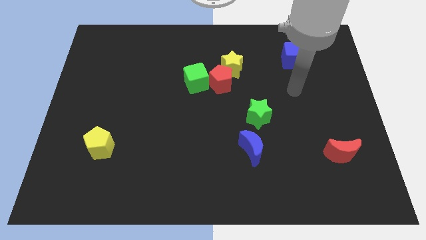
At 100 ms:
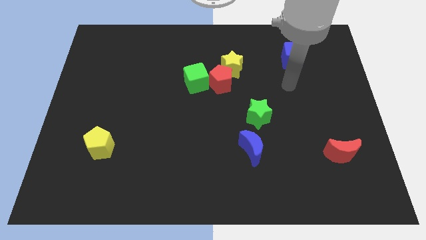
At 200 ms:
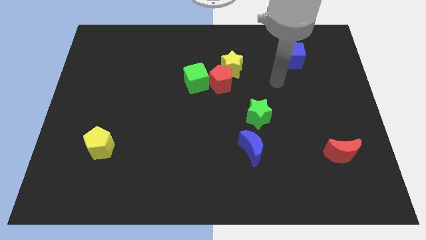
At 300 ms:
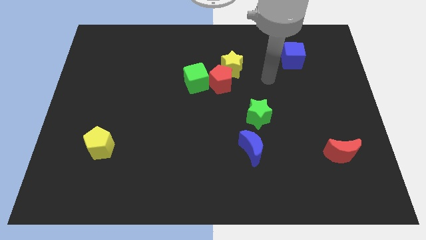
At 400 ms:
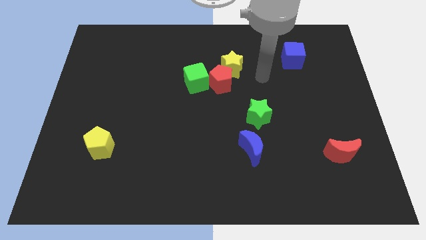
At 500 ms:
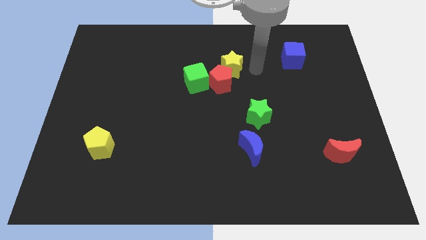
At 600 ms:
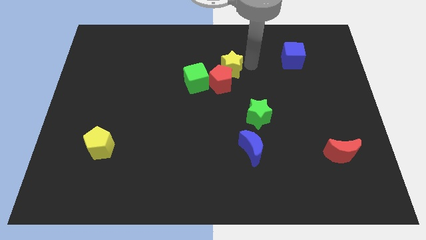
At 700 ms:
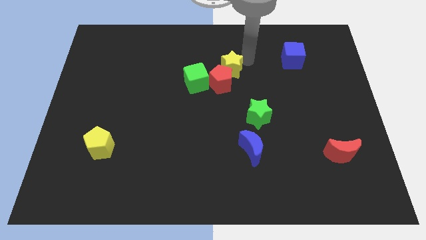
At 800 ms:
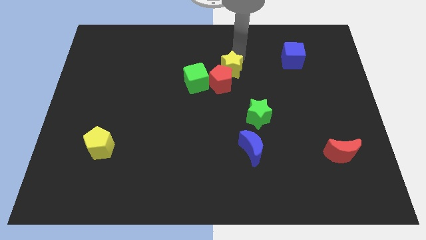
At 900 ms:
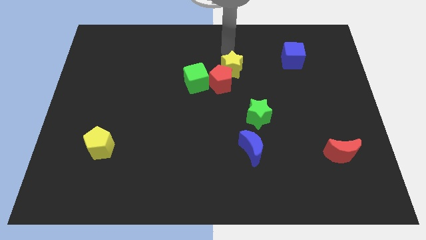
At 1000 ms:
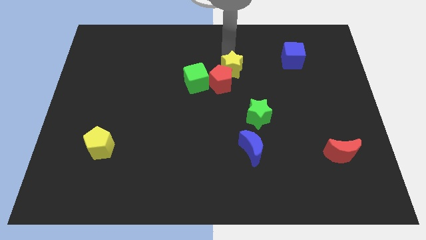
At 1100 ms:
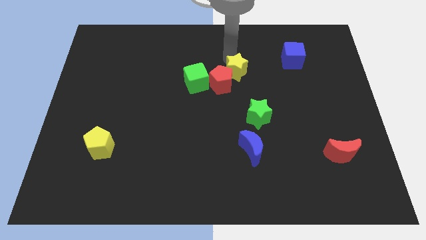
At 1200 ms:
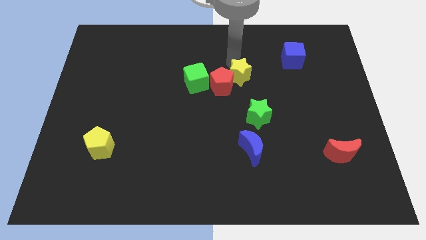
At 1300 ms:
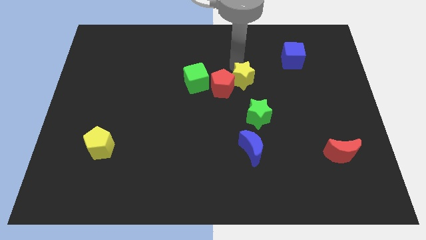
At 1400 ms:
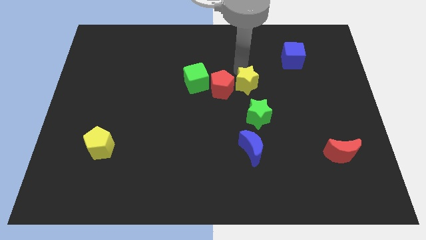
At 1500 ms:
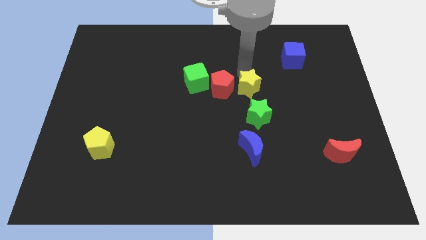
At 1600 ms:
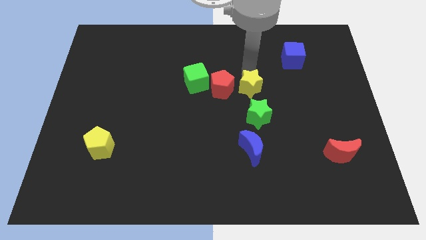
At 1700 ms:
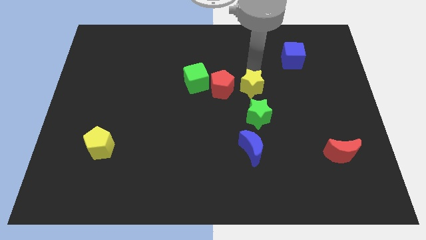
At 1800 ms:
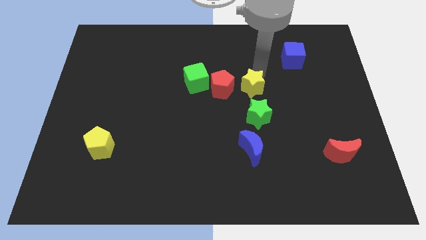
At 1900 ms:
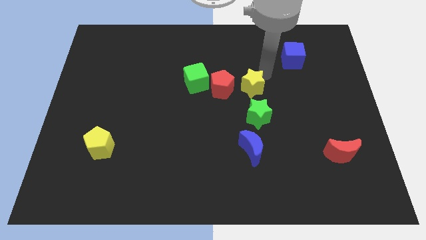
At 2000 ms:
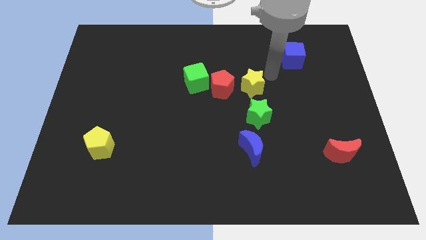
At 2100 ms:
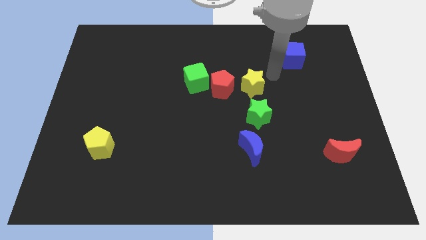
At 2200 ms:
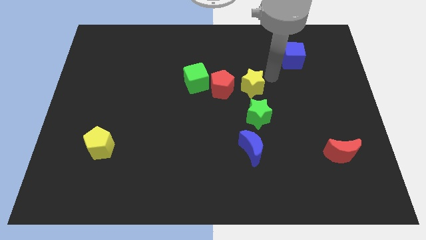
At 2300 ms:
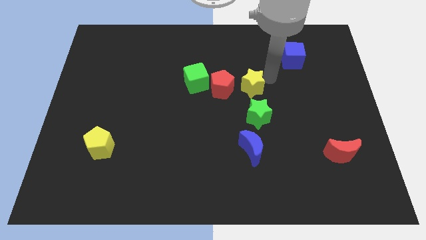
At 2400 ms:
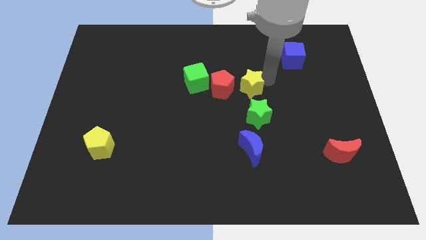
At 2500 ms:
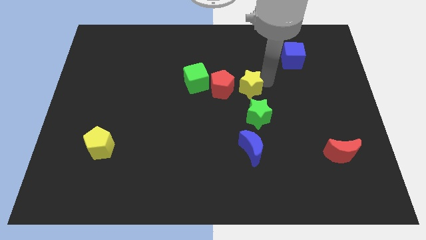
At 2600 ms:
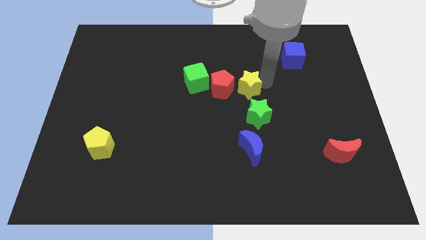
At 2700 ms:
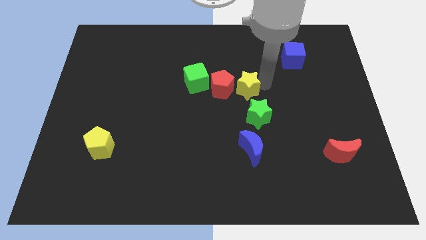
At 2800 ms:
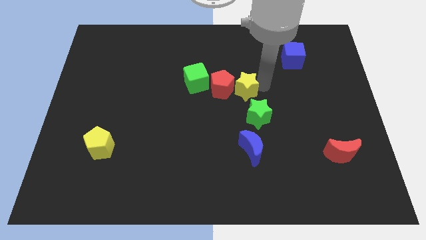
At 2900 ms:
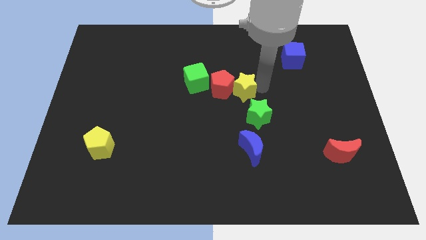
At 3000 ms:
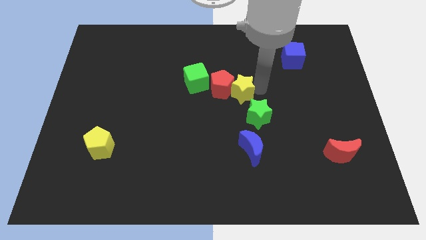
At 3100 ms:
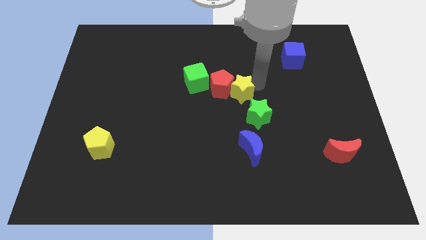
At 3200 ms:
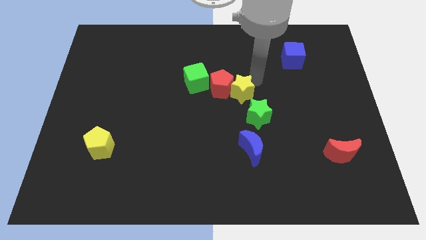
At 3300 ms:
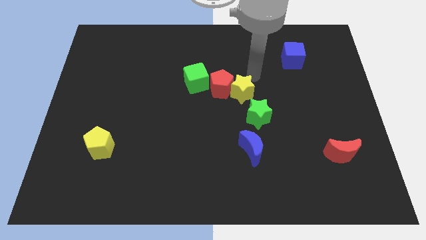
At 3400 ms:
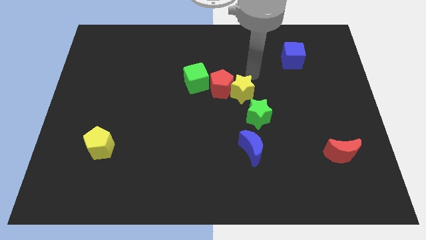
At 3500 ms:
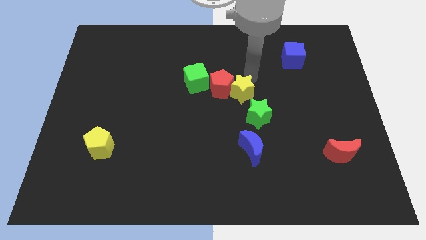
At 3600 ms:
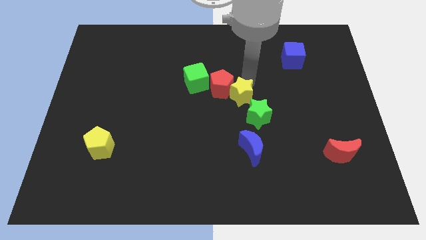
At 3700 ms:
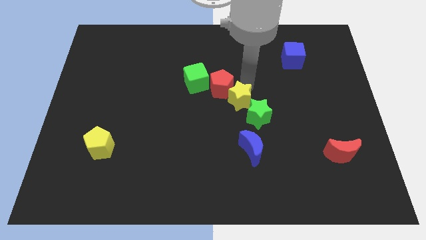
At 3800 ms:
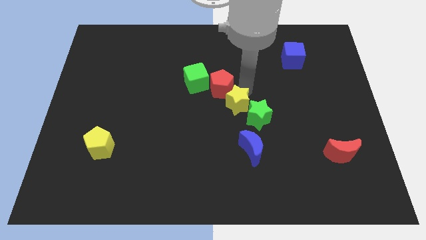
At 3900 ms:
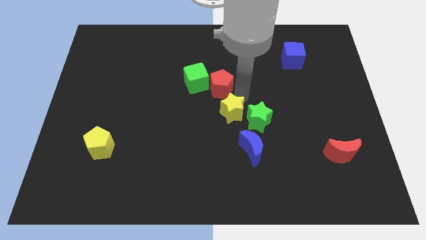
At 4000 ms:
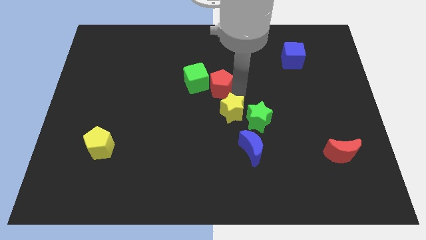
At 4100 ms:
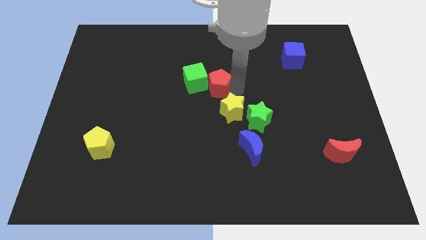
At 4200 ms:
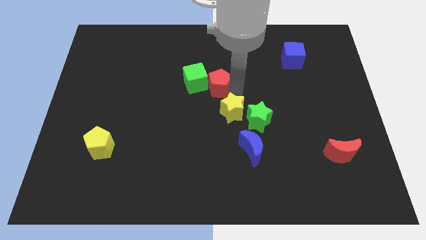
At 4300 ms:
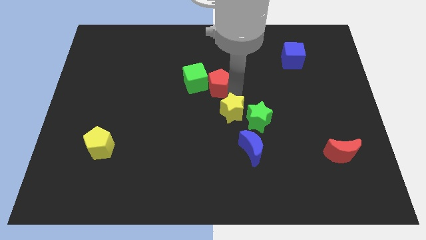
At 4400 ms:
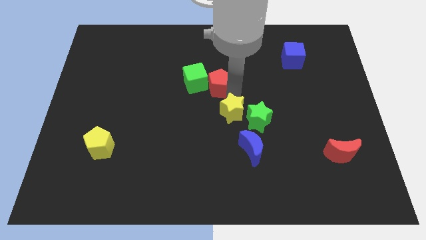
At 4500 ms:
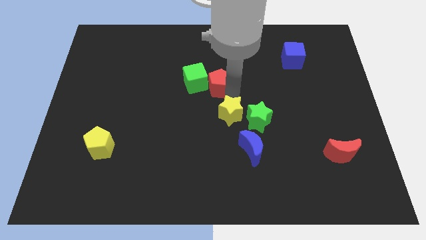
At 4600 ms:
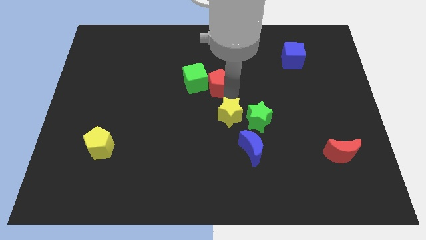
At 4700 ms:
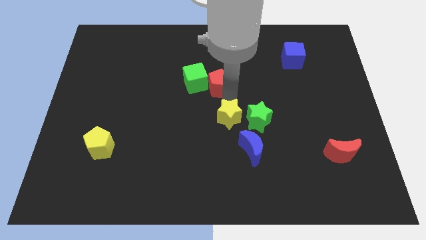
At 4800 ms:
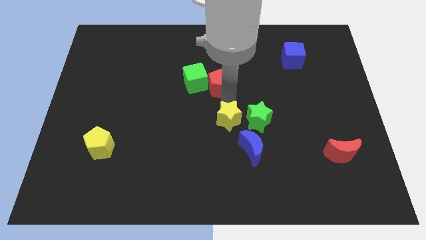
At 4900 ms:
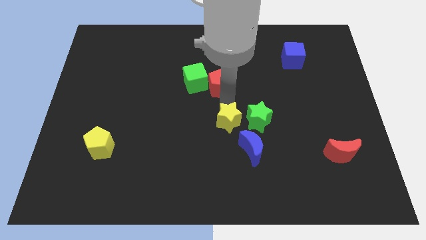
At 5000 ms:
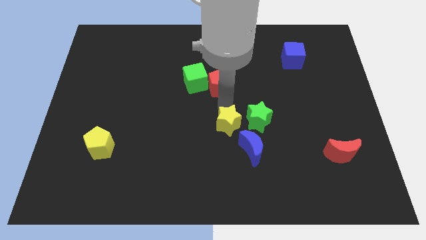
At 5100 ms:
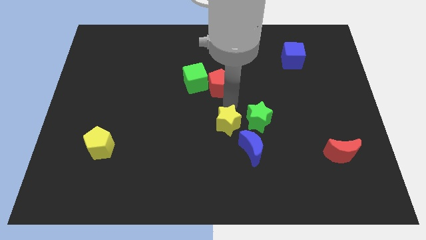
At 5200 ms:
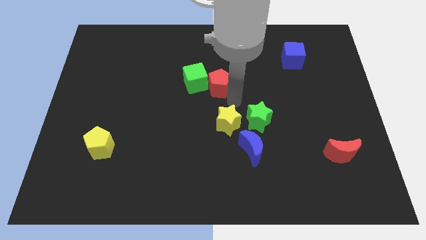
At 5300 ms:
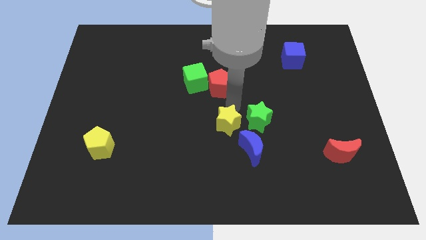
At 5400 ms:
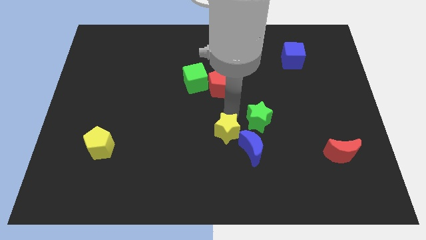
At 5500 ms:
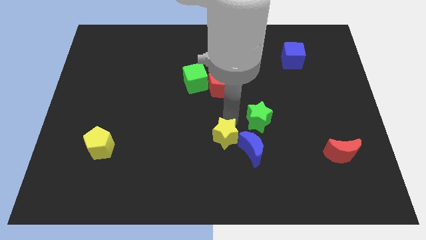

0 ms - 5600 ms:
slide the yellow star down

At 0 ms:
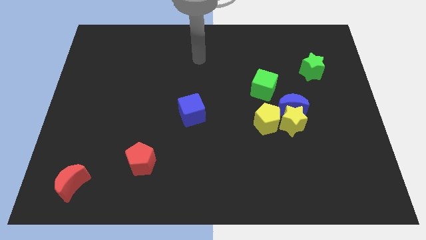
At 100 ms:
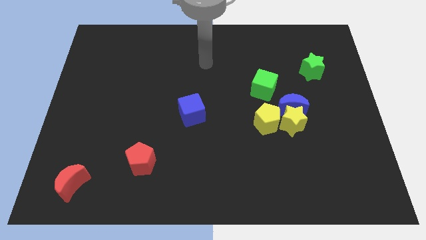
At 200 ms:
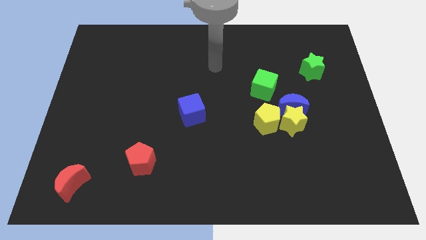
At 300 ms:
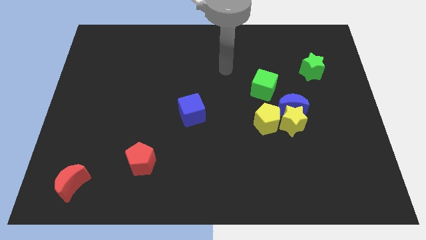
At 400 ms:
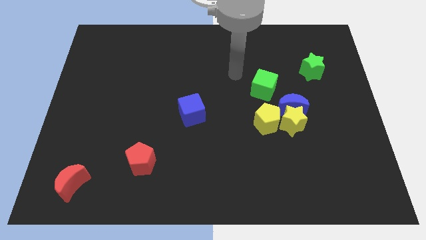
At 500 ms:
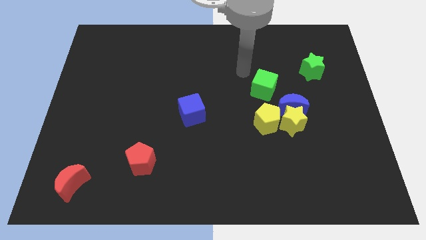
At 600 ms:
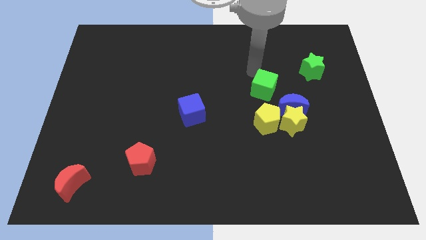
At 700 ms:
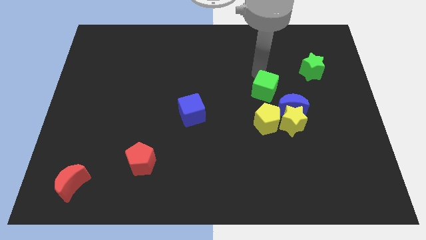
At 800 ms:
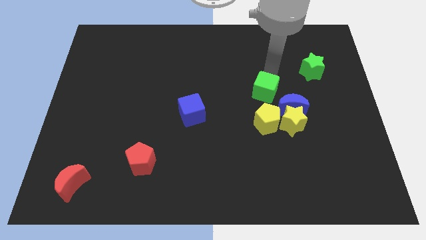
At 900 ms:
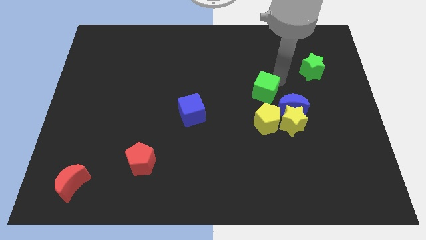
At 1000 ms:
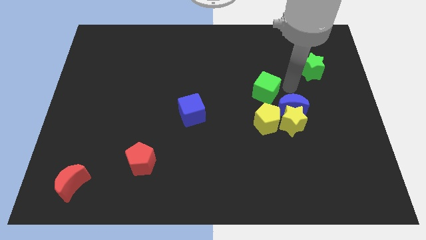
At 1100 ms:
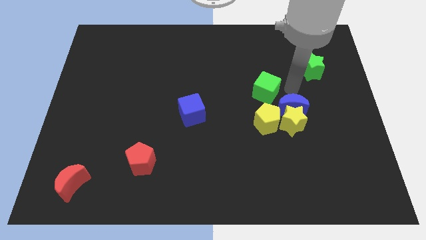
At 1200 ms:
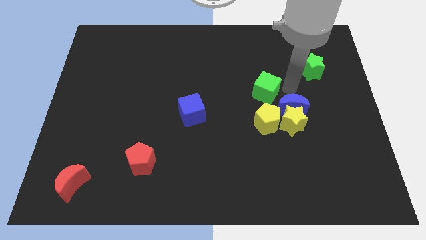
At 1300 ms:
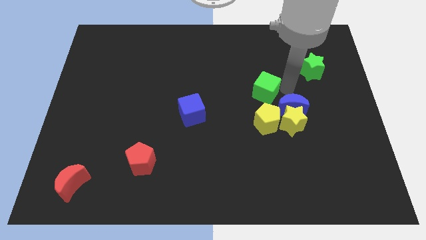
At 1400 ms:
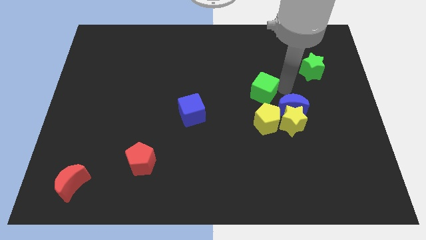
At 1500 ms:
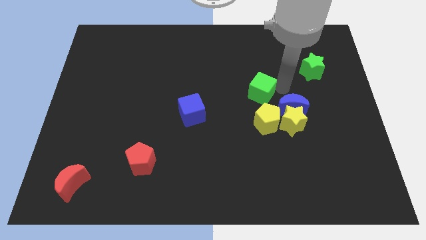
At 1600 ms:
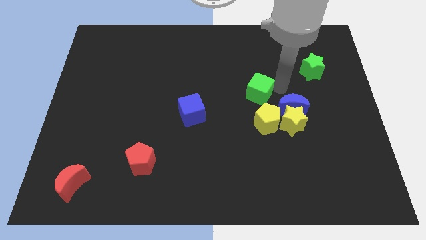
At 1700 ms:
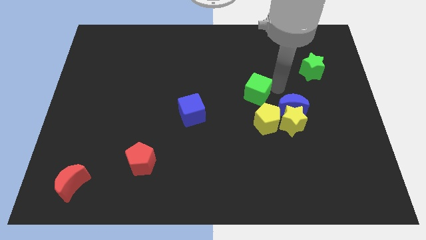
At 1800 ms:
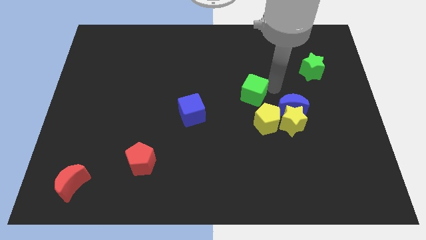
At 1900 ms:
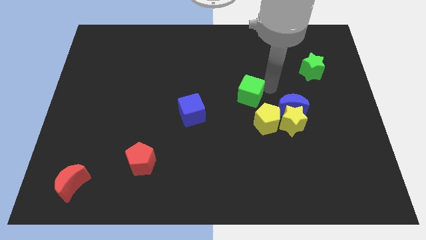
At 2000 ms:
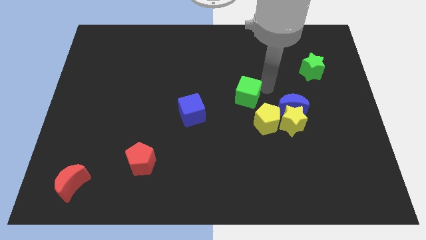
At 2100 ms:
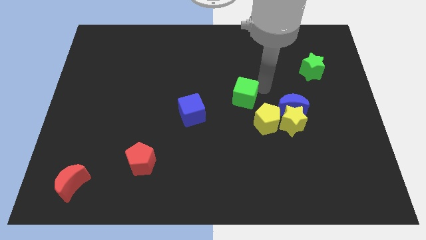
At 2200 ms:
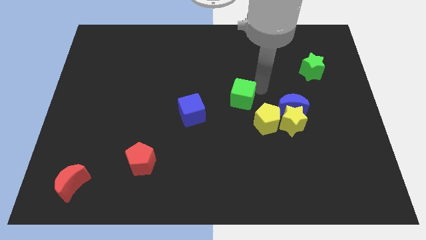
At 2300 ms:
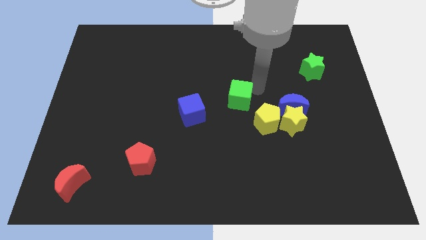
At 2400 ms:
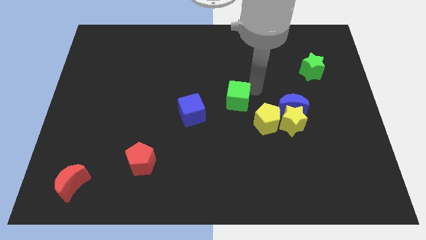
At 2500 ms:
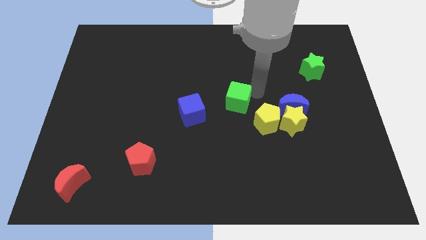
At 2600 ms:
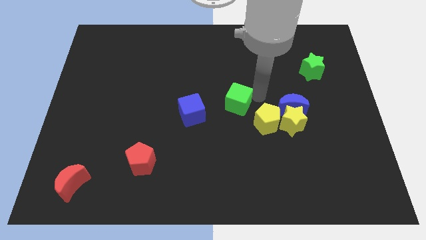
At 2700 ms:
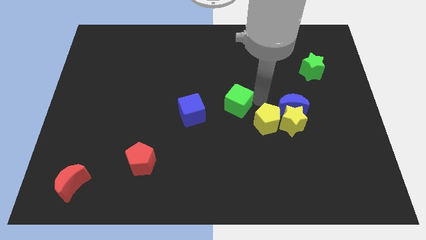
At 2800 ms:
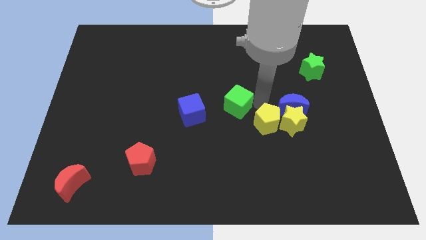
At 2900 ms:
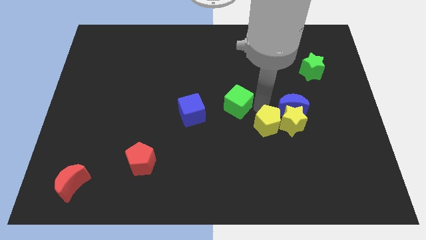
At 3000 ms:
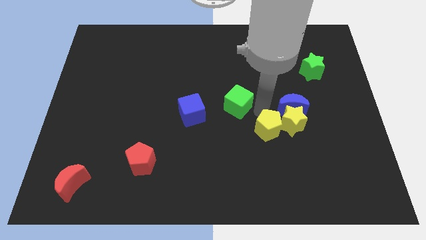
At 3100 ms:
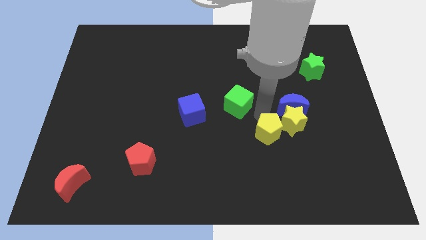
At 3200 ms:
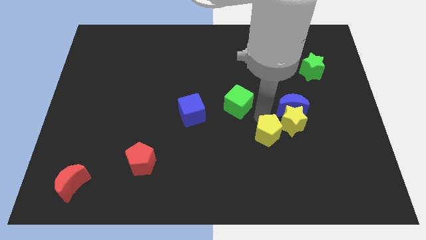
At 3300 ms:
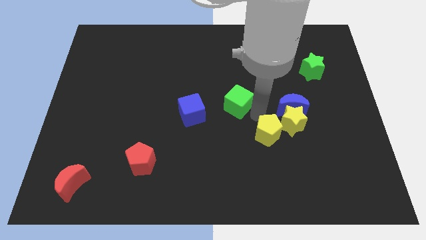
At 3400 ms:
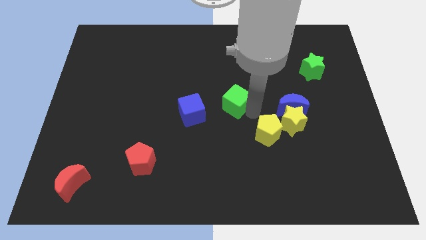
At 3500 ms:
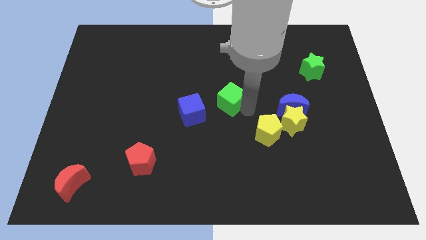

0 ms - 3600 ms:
push the green cube slightly to the left
